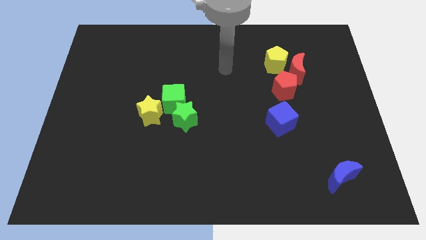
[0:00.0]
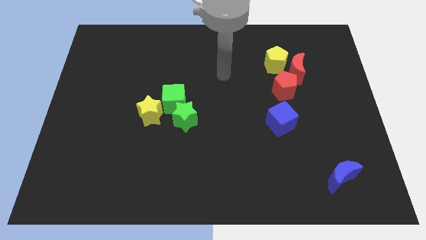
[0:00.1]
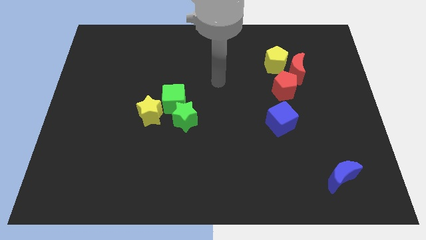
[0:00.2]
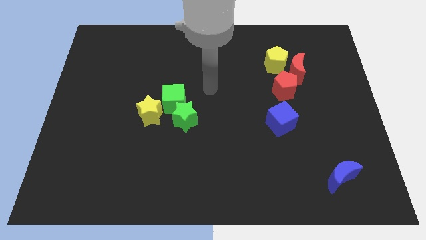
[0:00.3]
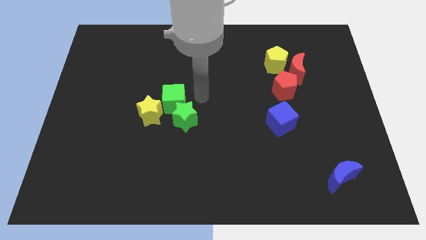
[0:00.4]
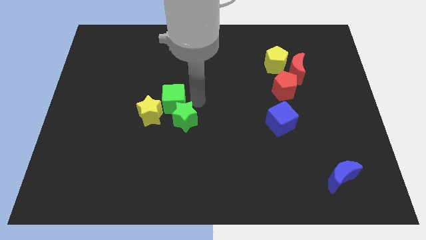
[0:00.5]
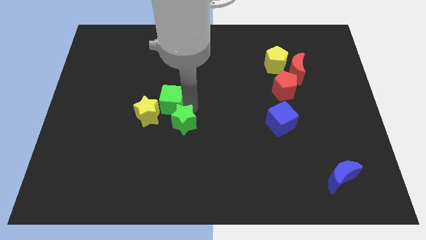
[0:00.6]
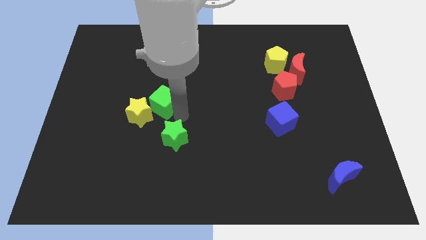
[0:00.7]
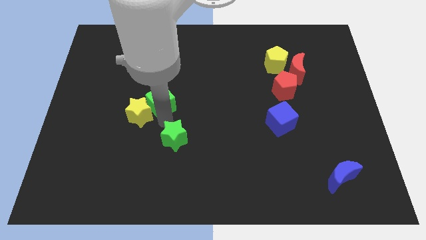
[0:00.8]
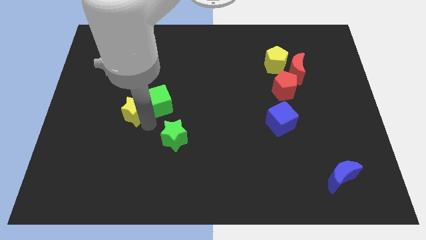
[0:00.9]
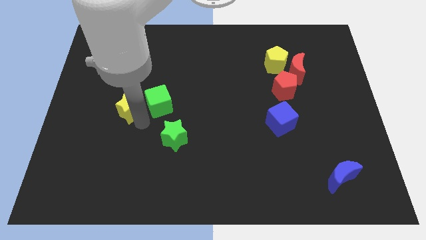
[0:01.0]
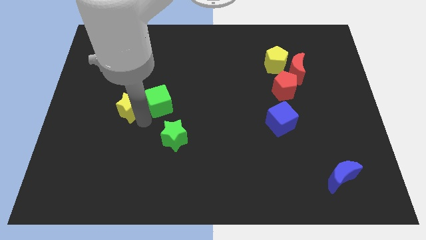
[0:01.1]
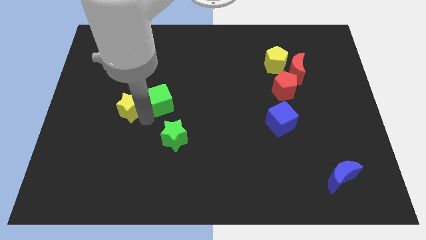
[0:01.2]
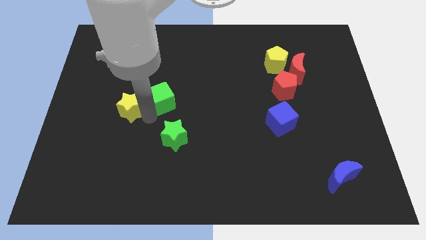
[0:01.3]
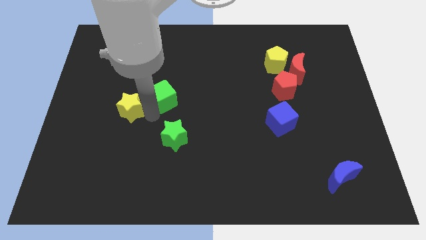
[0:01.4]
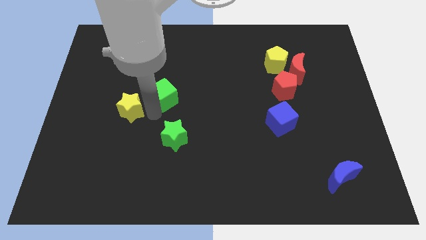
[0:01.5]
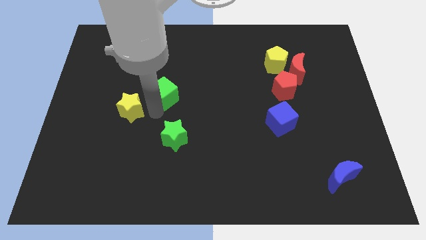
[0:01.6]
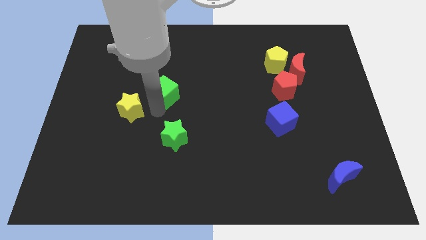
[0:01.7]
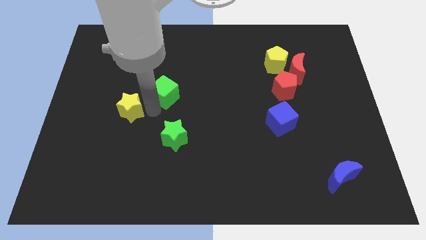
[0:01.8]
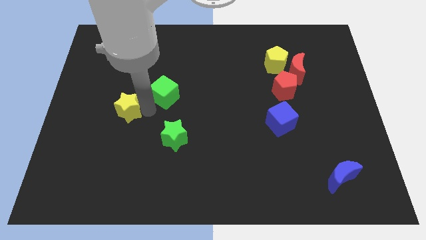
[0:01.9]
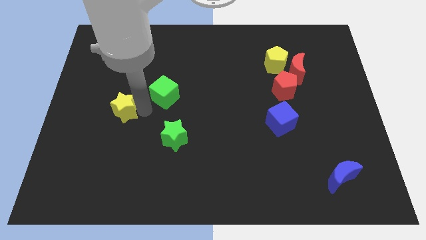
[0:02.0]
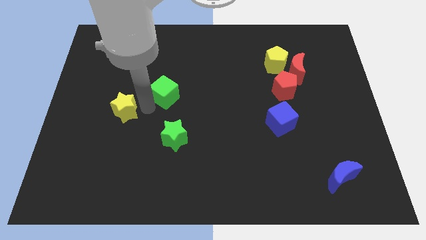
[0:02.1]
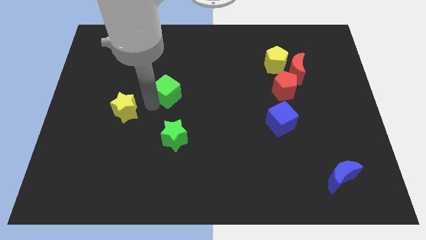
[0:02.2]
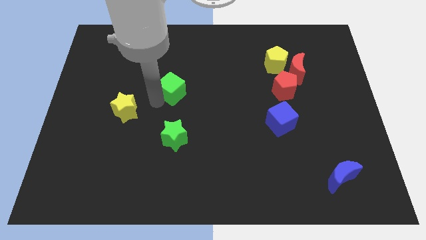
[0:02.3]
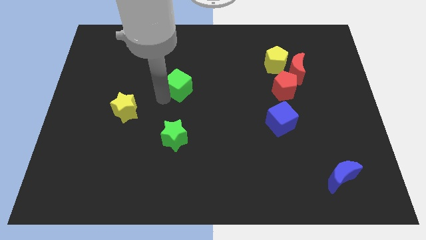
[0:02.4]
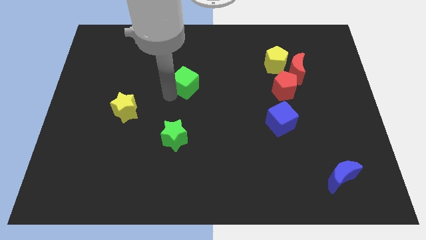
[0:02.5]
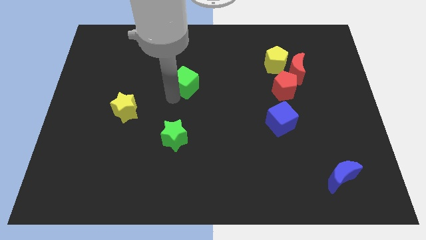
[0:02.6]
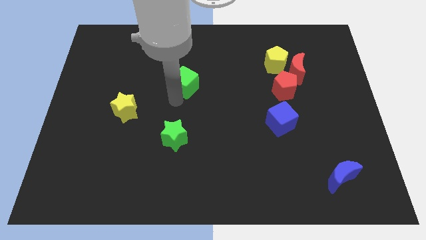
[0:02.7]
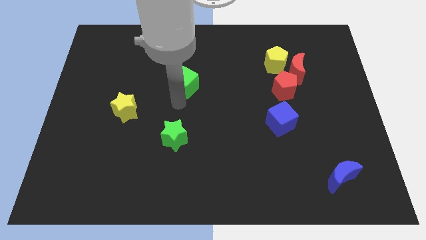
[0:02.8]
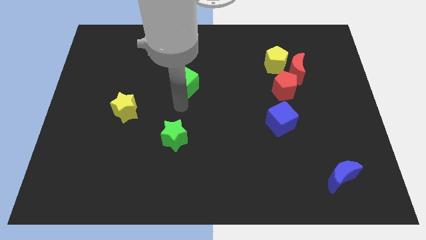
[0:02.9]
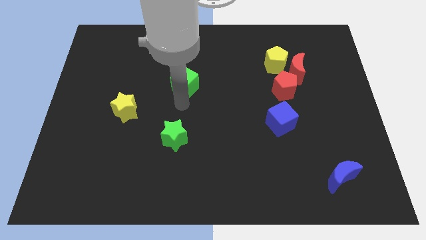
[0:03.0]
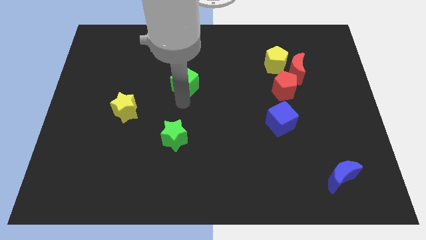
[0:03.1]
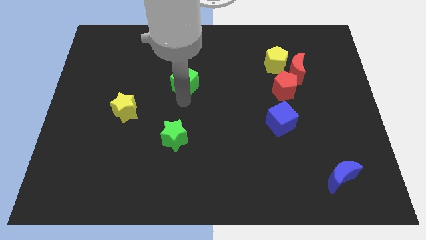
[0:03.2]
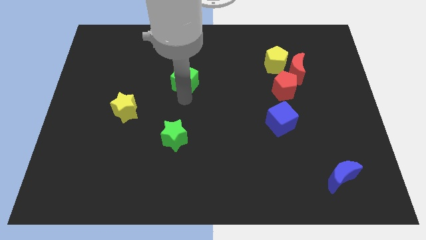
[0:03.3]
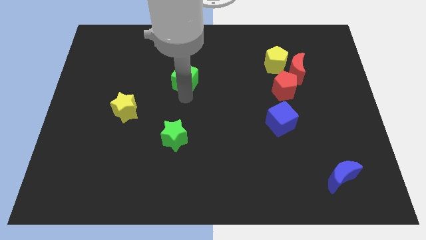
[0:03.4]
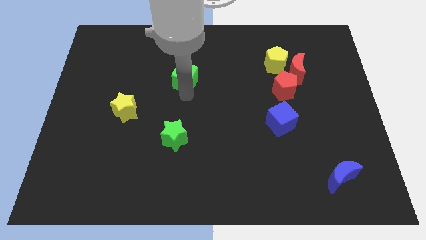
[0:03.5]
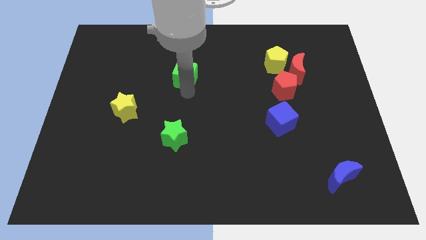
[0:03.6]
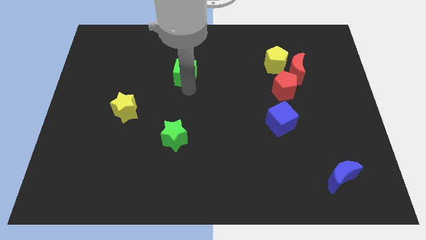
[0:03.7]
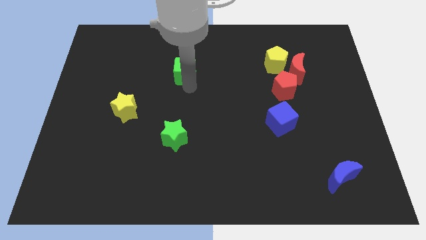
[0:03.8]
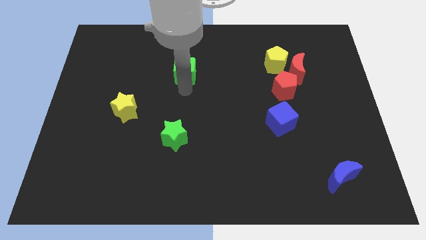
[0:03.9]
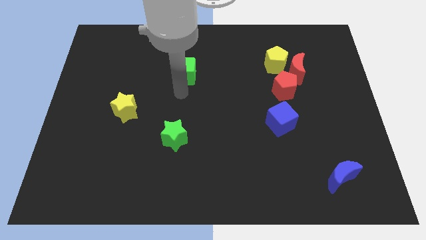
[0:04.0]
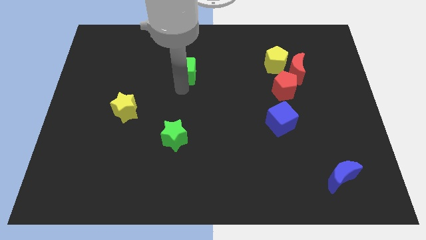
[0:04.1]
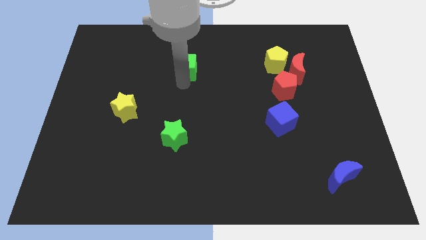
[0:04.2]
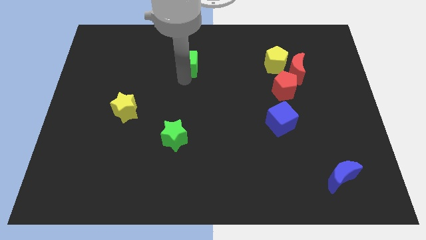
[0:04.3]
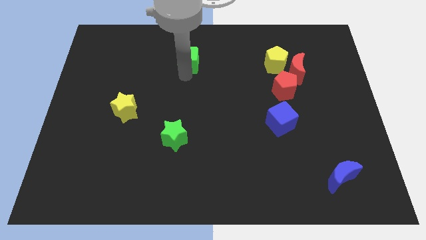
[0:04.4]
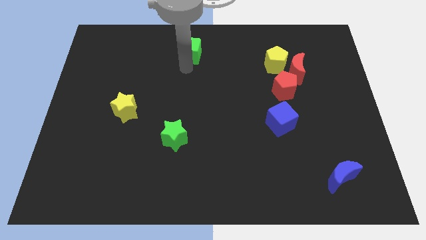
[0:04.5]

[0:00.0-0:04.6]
put the green cube to the top side

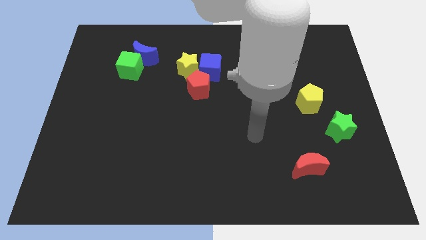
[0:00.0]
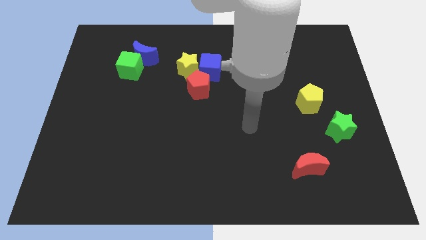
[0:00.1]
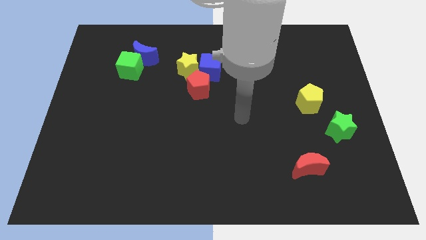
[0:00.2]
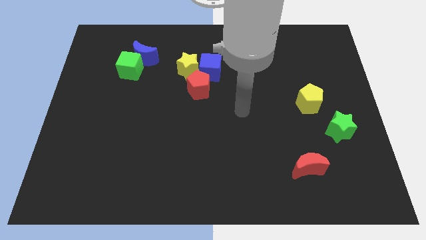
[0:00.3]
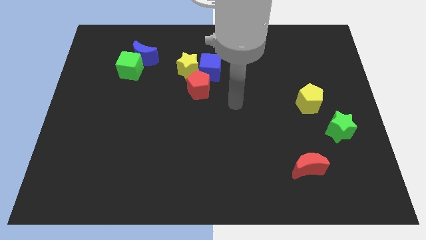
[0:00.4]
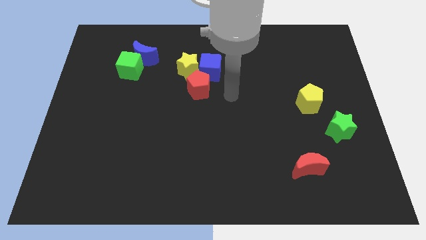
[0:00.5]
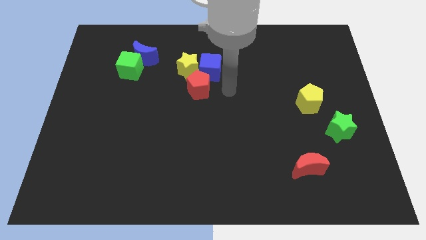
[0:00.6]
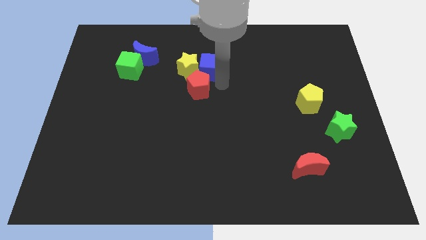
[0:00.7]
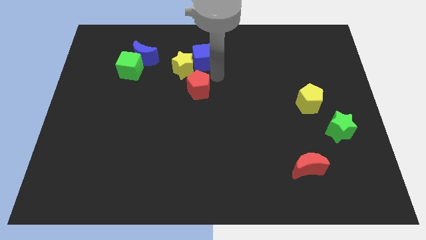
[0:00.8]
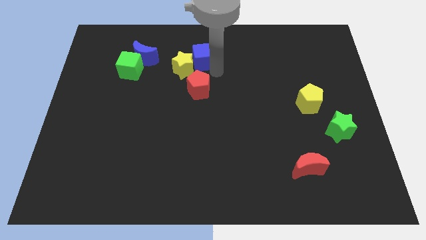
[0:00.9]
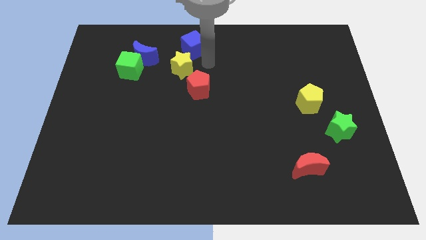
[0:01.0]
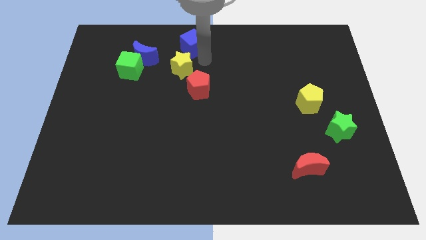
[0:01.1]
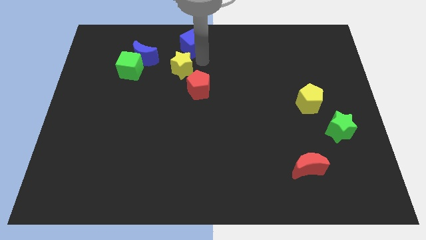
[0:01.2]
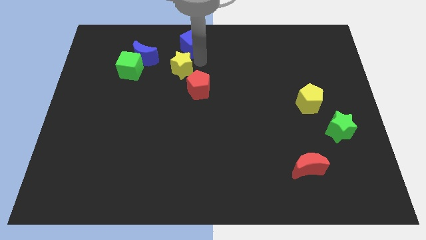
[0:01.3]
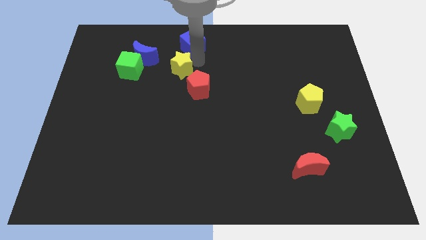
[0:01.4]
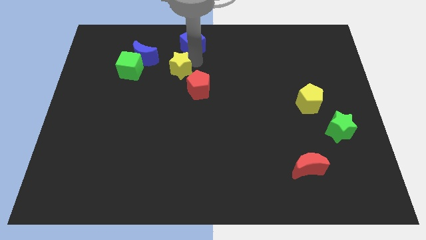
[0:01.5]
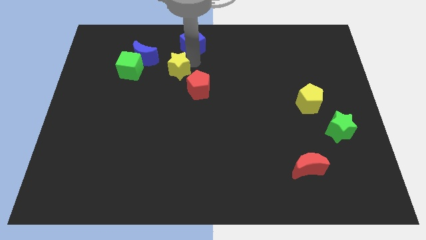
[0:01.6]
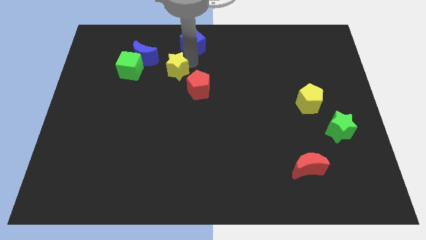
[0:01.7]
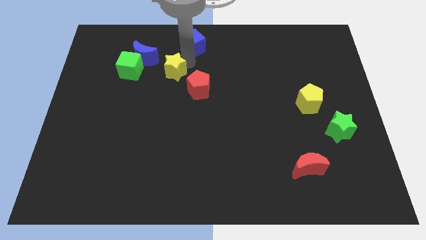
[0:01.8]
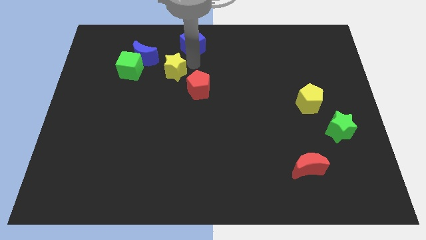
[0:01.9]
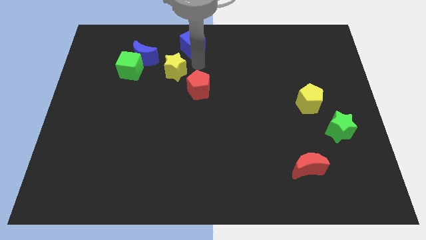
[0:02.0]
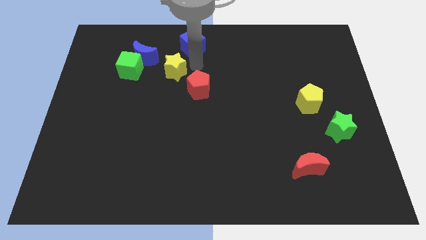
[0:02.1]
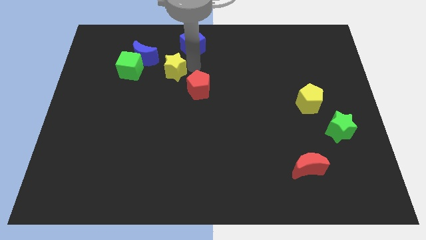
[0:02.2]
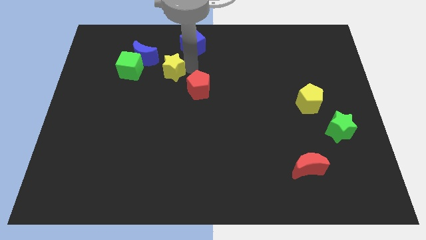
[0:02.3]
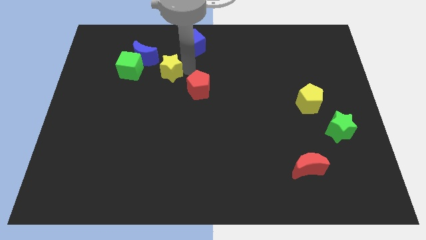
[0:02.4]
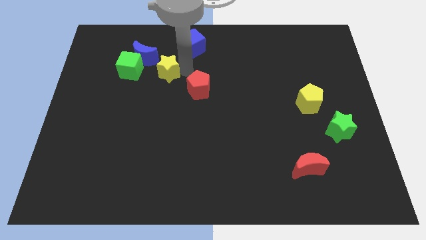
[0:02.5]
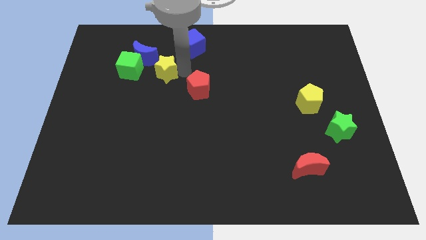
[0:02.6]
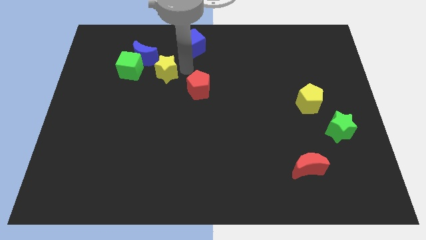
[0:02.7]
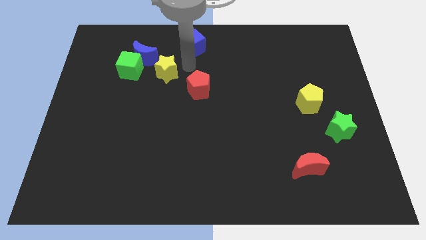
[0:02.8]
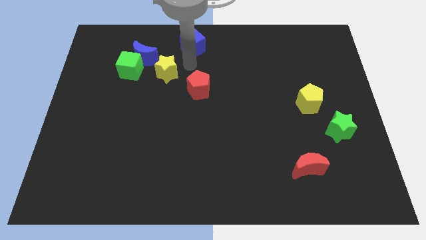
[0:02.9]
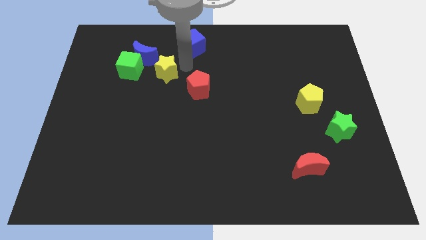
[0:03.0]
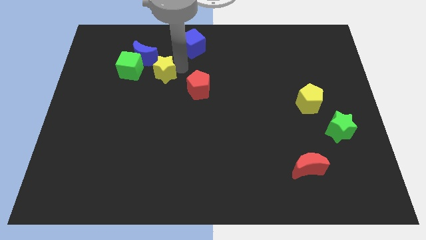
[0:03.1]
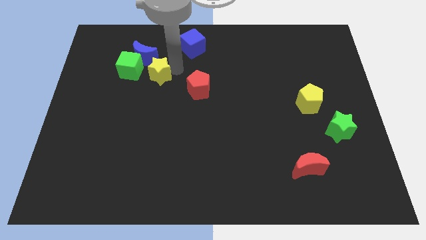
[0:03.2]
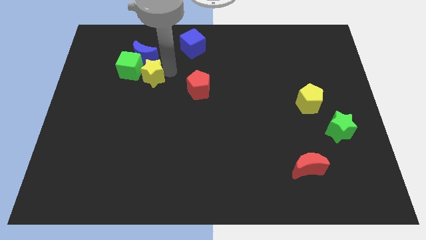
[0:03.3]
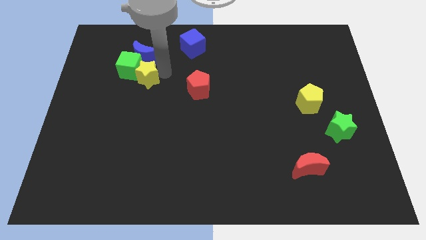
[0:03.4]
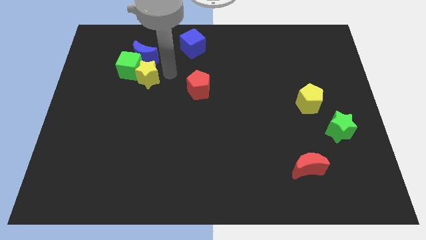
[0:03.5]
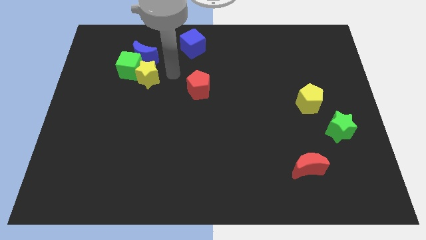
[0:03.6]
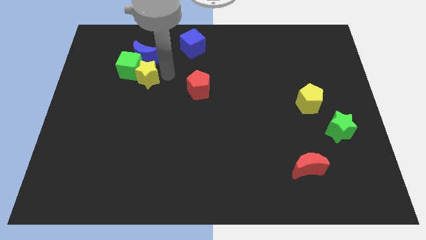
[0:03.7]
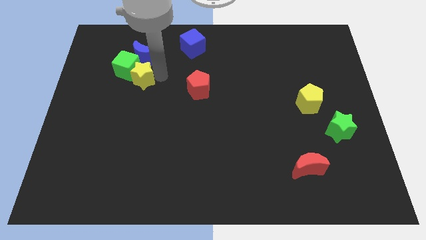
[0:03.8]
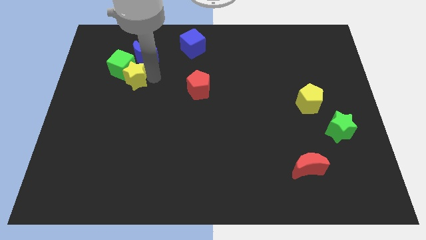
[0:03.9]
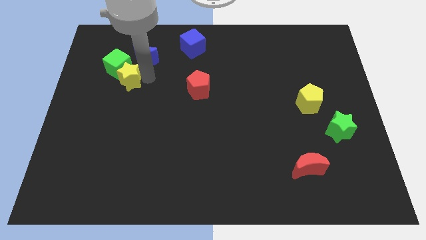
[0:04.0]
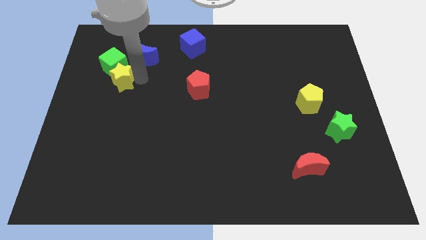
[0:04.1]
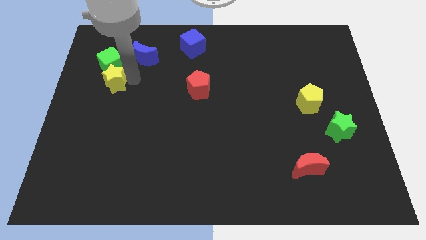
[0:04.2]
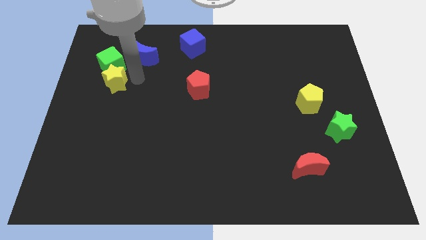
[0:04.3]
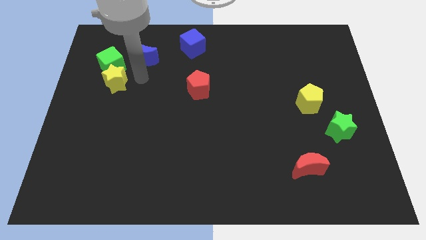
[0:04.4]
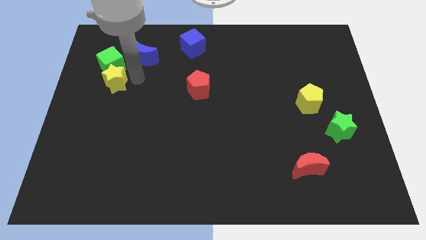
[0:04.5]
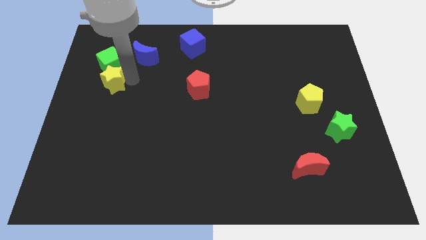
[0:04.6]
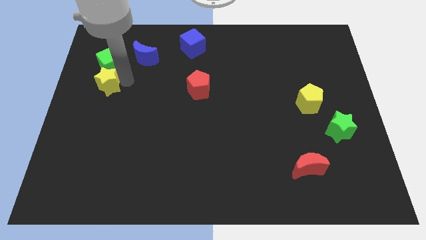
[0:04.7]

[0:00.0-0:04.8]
slide the yellow star to the center left
